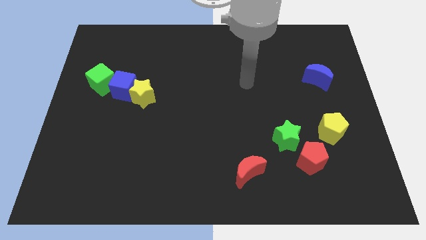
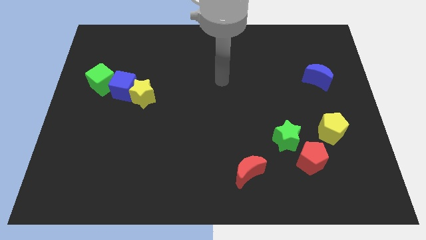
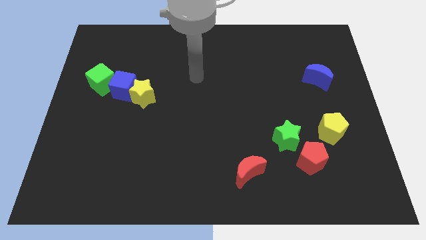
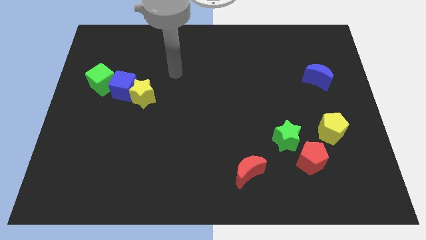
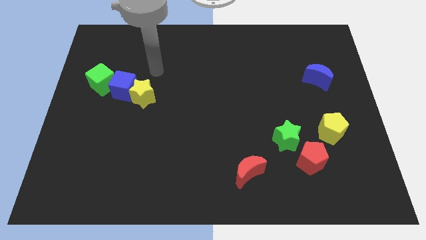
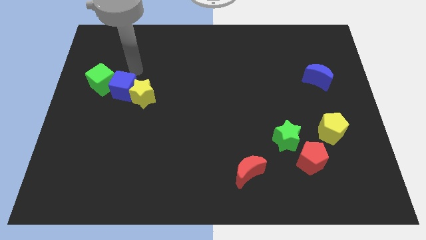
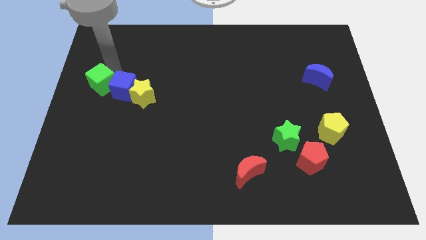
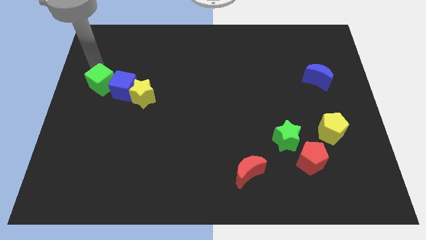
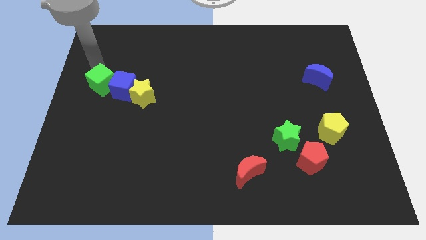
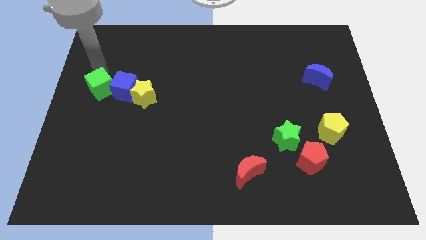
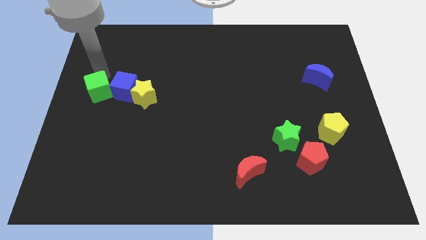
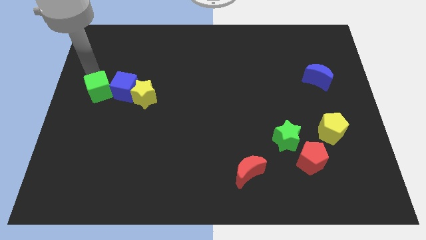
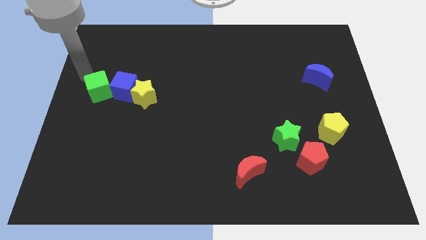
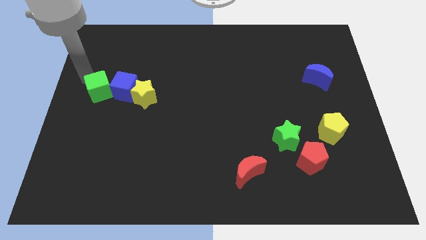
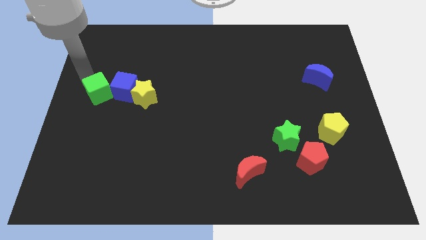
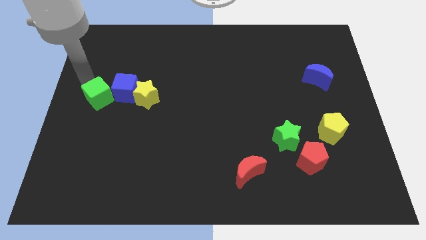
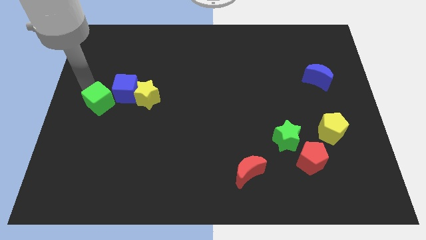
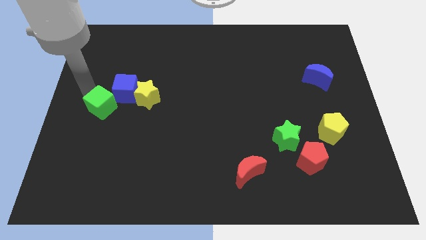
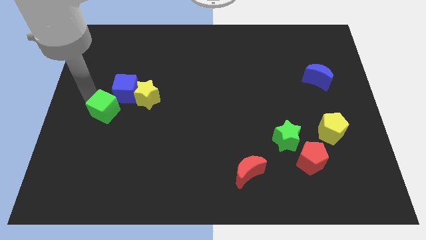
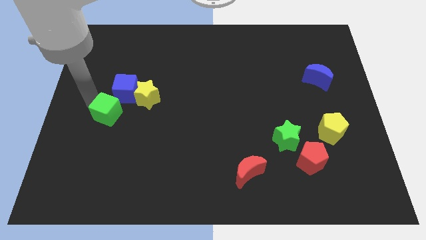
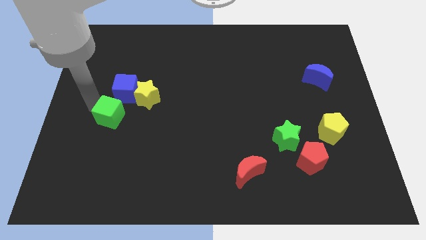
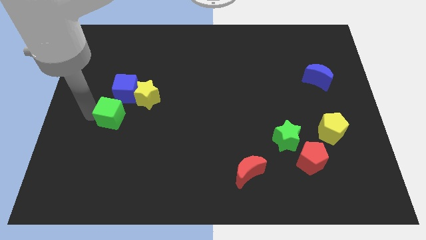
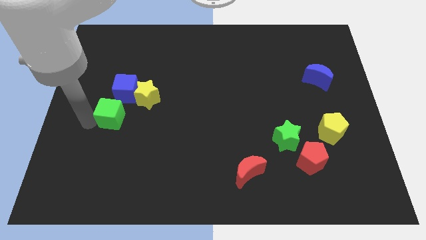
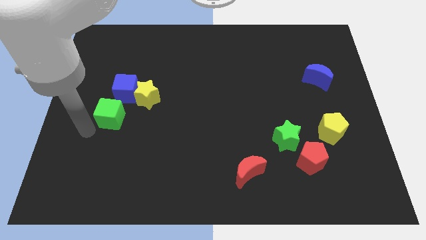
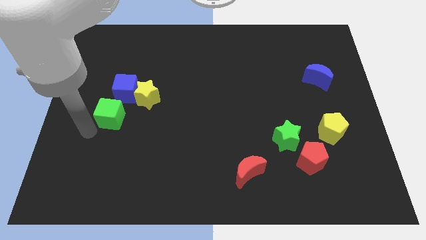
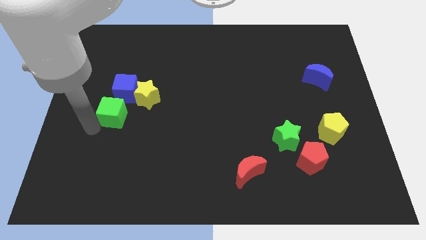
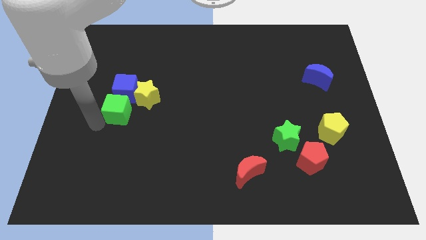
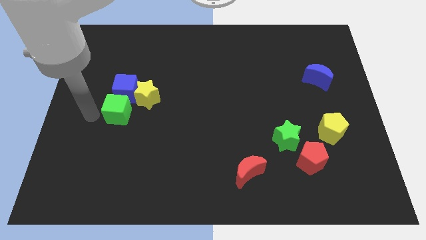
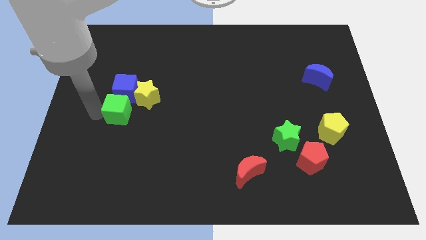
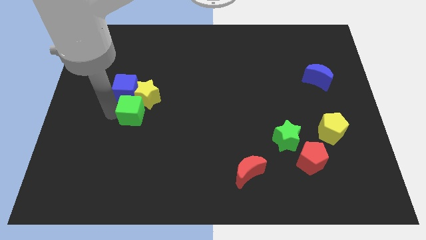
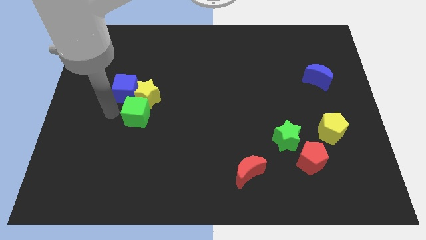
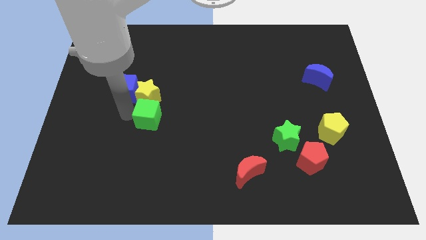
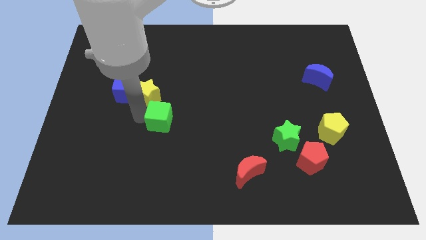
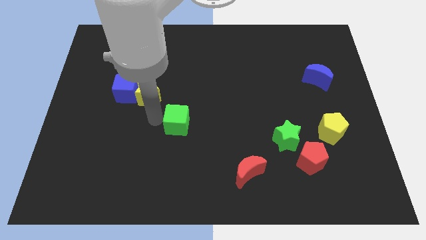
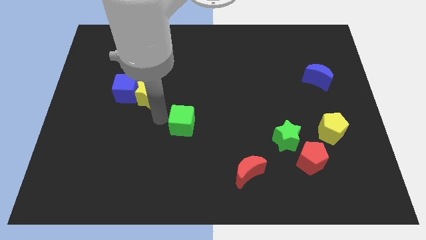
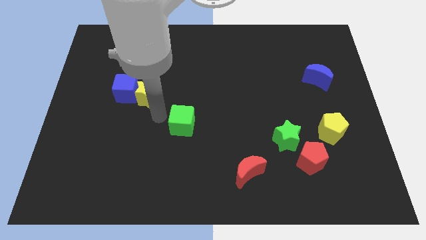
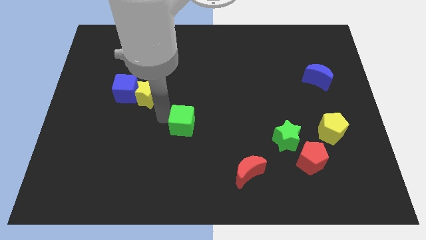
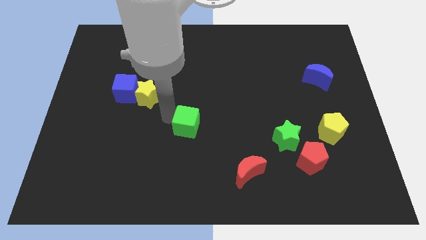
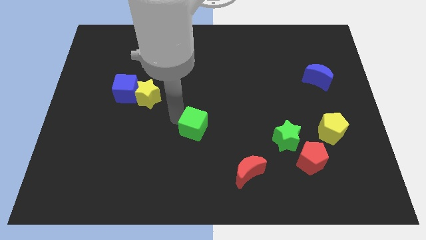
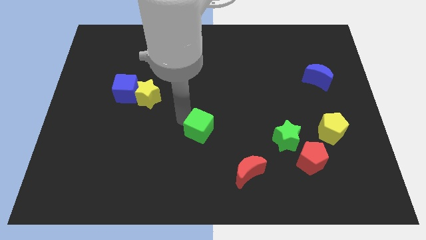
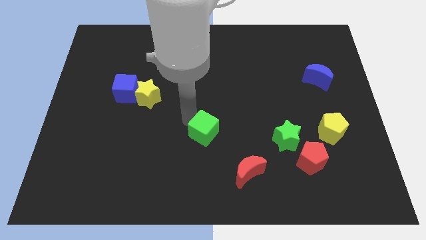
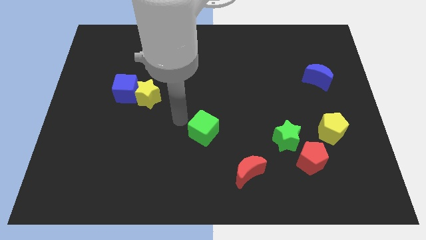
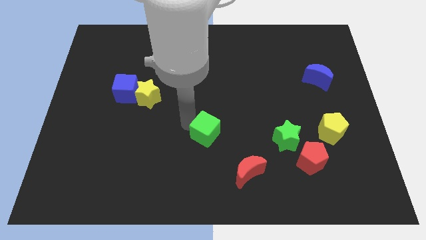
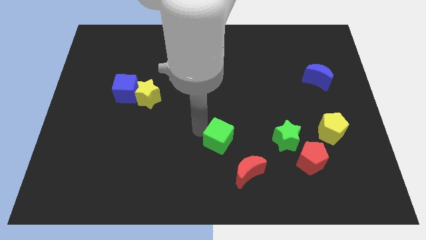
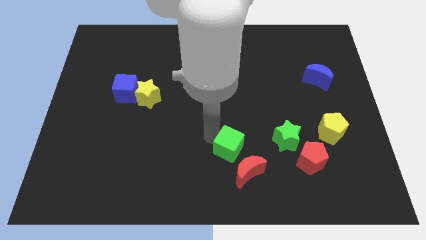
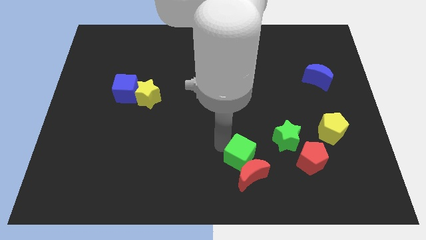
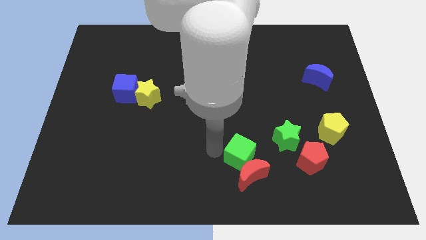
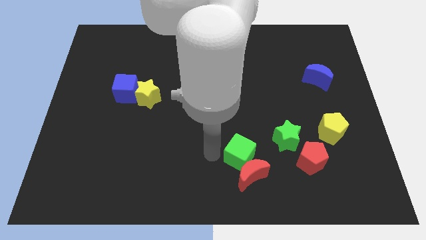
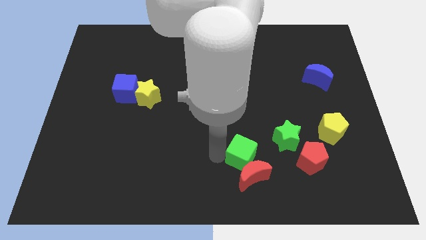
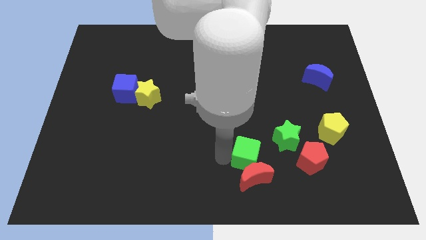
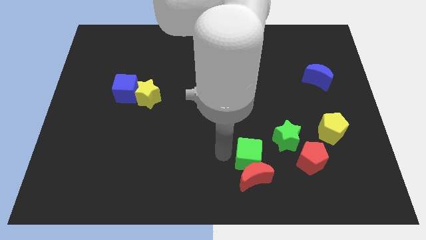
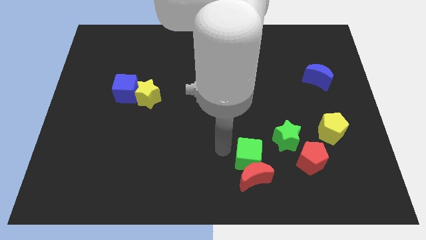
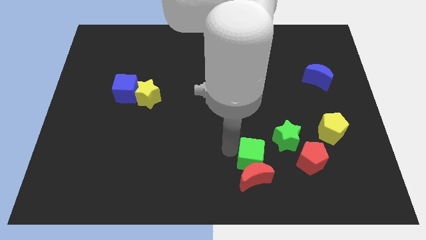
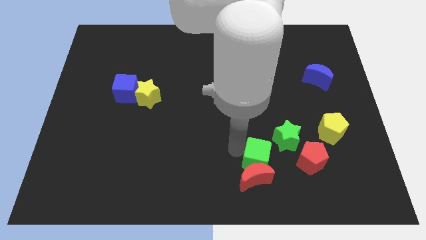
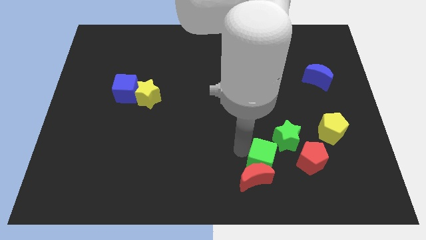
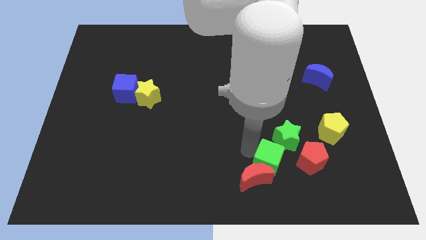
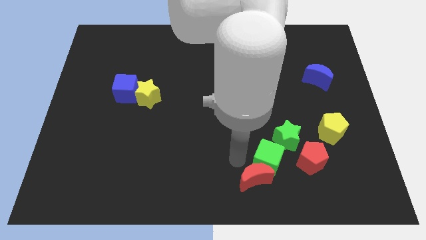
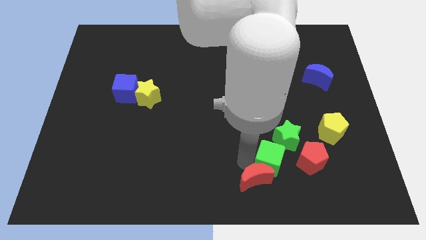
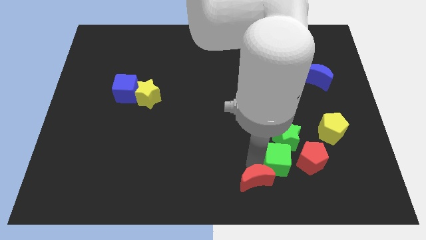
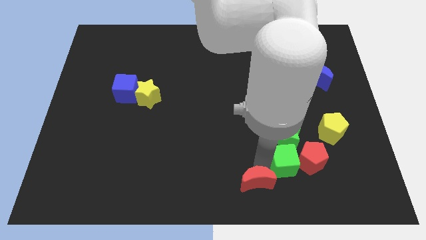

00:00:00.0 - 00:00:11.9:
slide the green cube towards the red pentagon

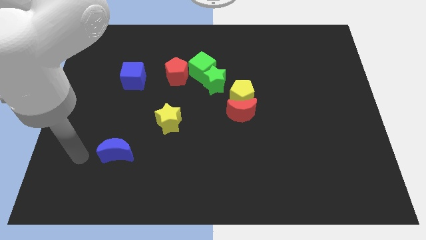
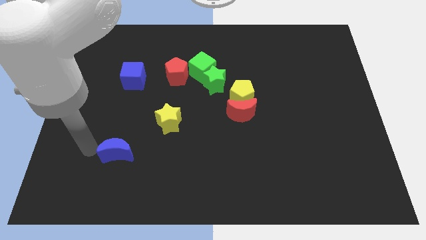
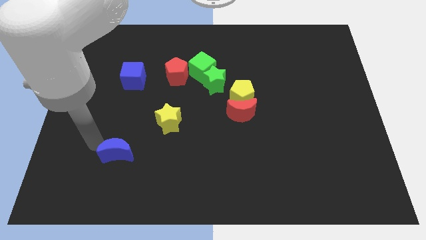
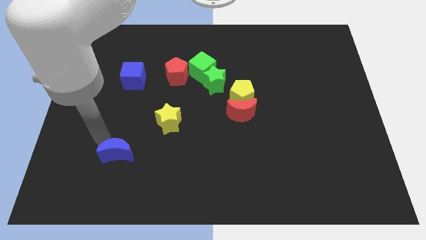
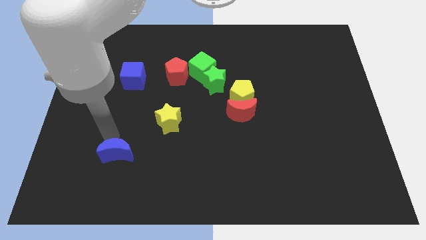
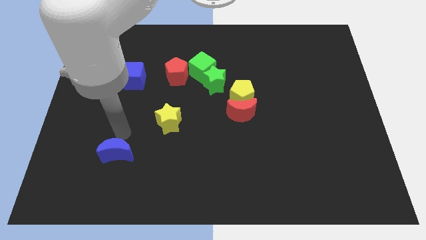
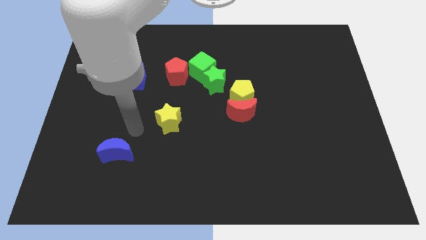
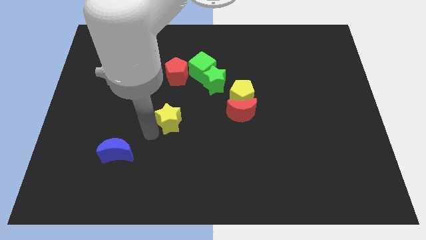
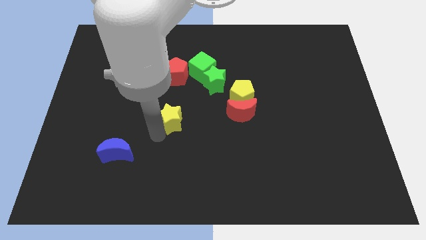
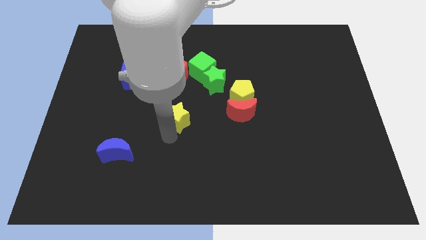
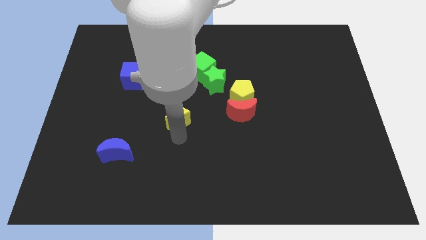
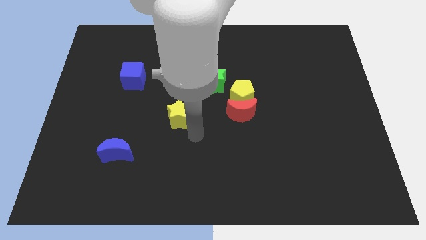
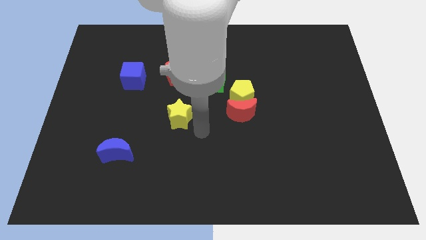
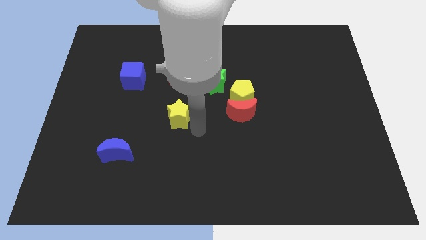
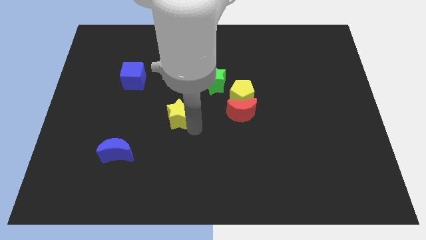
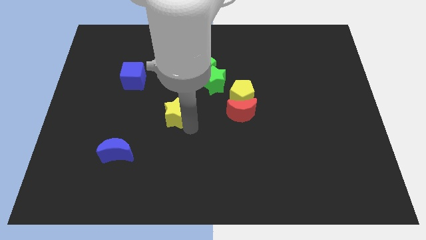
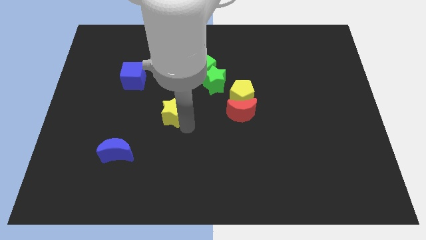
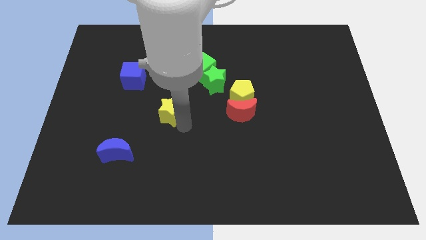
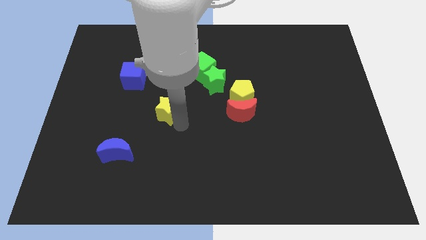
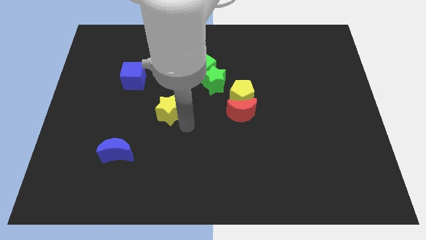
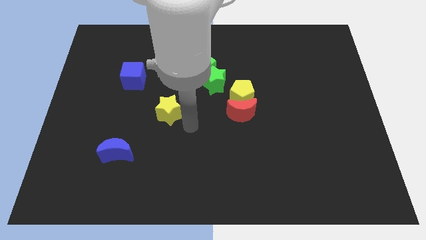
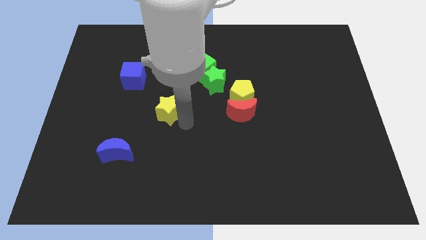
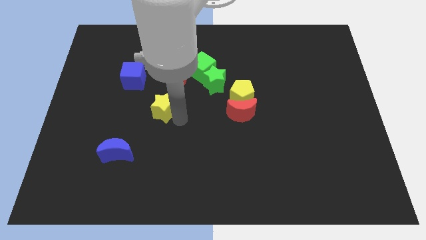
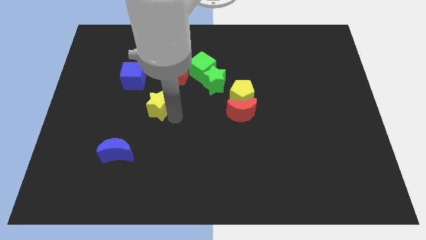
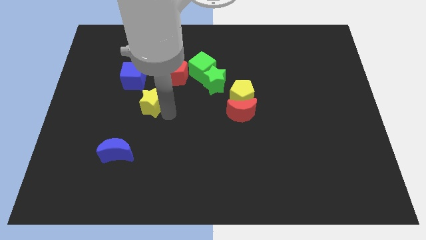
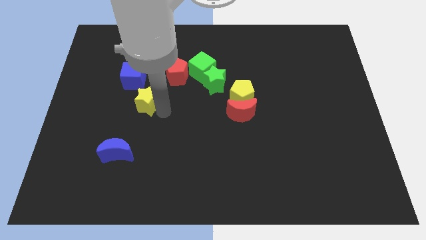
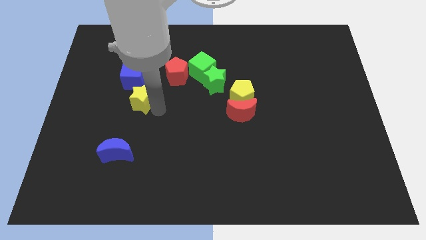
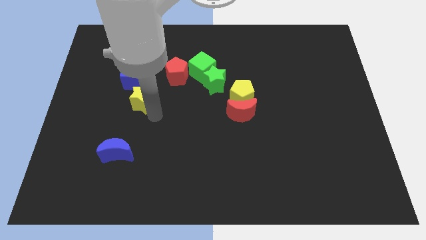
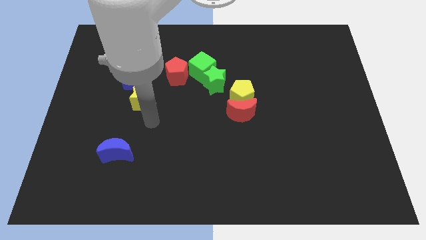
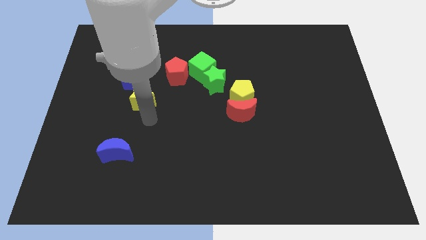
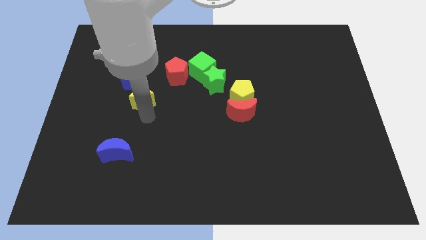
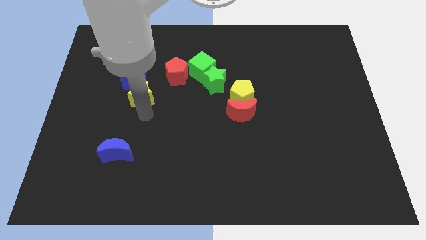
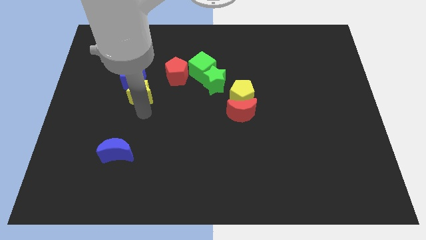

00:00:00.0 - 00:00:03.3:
slide the yellow star to the blue cube
